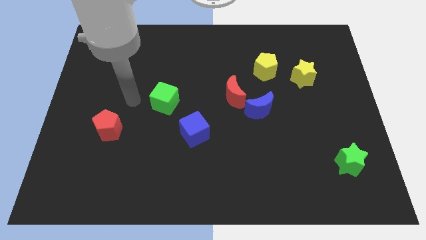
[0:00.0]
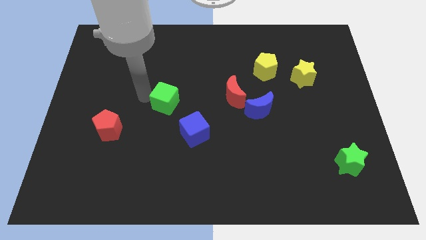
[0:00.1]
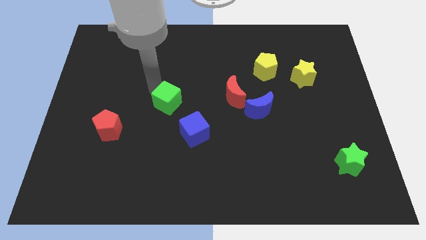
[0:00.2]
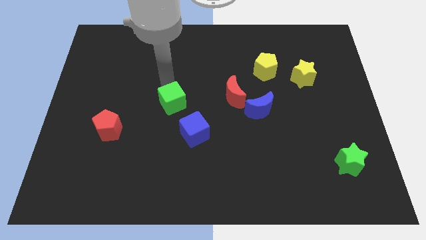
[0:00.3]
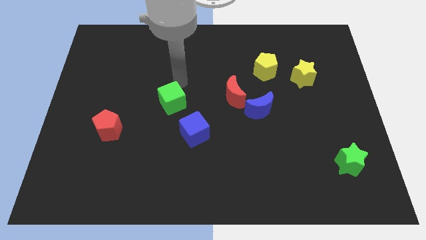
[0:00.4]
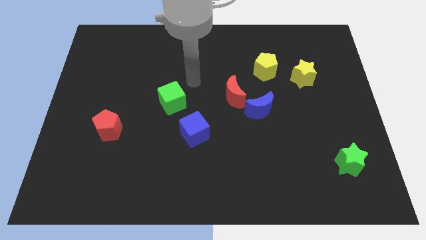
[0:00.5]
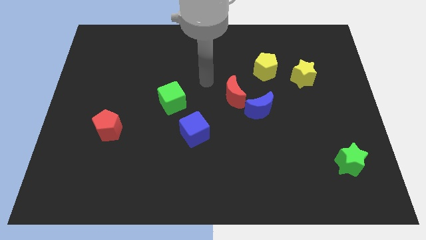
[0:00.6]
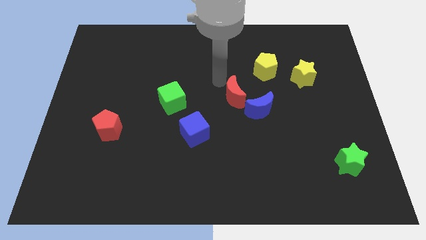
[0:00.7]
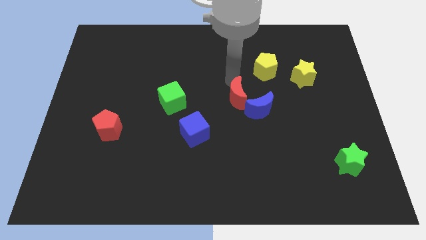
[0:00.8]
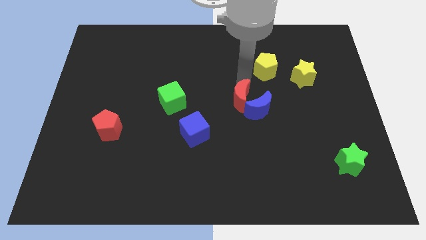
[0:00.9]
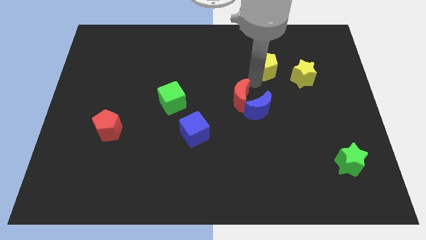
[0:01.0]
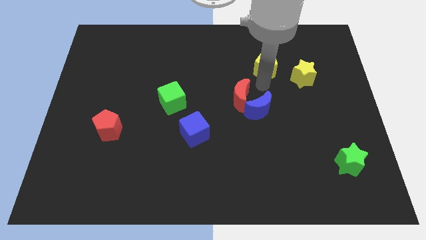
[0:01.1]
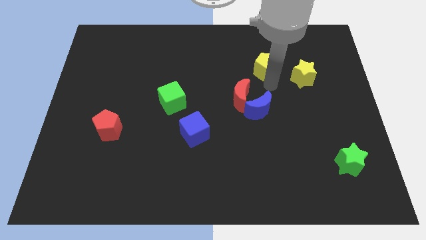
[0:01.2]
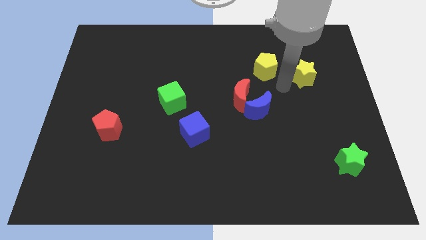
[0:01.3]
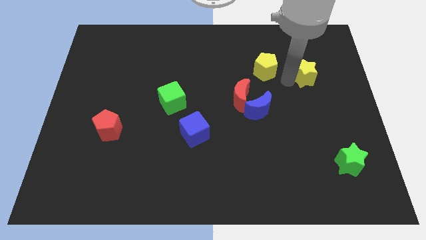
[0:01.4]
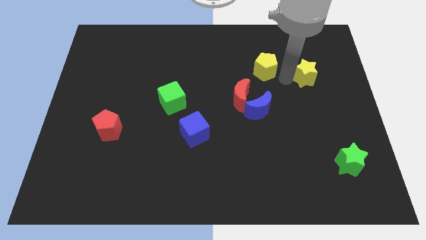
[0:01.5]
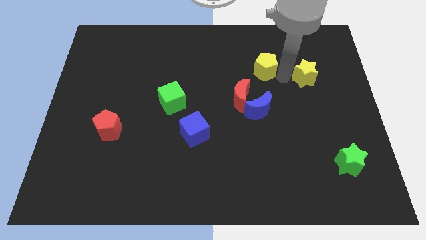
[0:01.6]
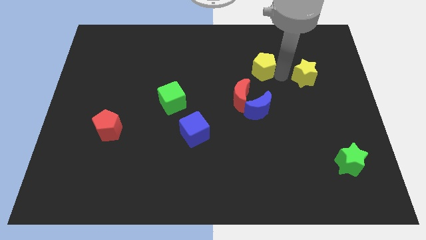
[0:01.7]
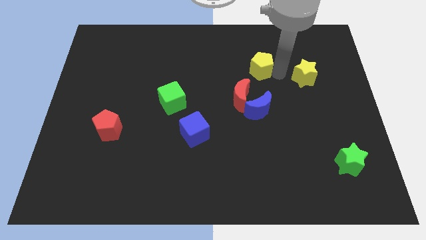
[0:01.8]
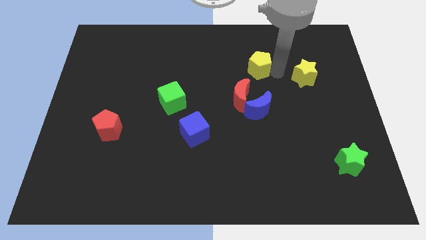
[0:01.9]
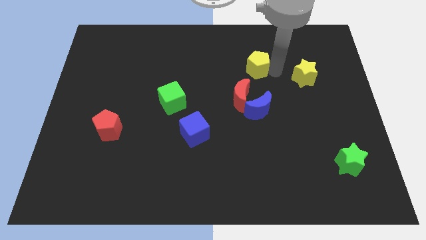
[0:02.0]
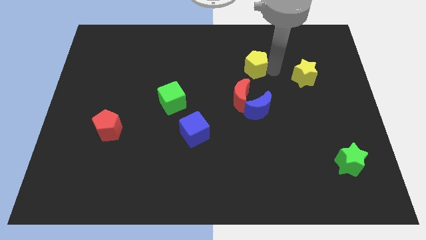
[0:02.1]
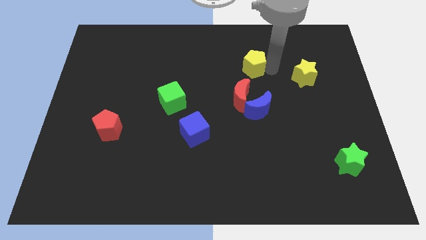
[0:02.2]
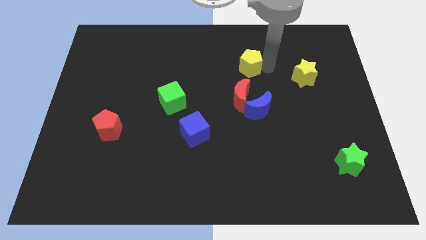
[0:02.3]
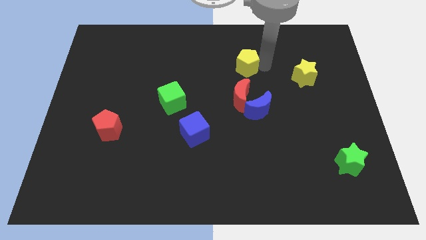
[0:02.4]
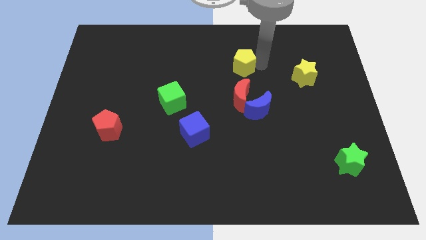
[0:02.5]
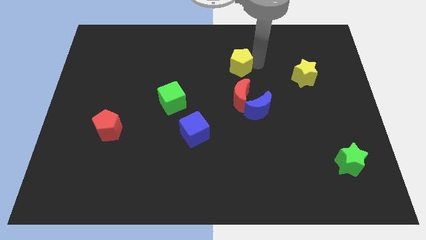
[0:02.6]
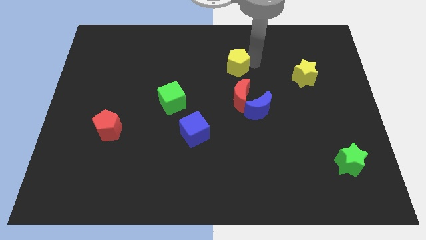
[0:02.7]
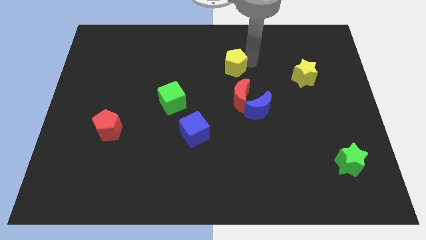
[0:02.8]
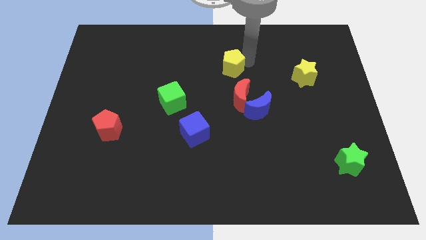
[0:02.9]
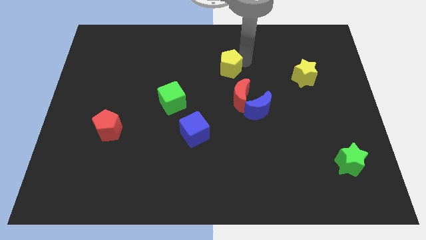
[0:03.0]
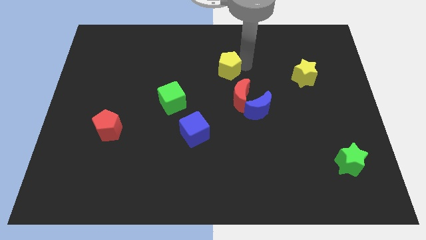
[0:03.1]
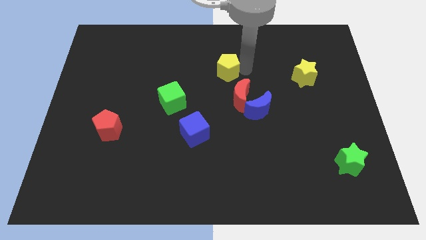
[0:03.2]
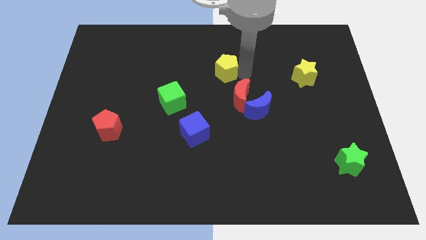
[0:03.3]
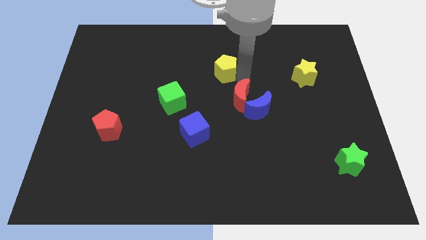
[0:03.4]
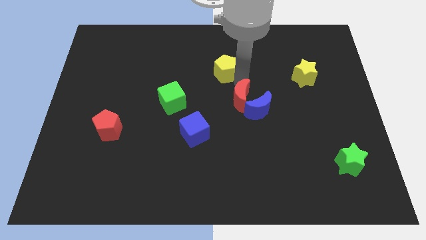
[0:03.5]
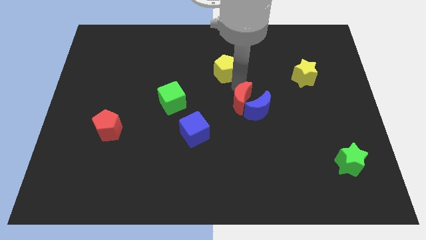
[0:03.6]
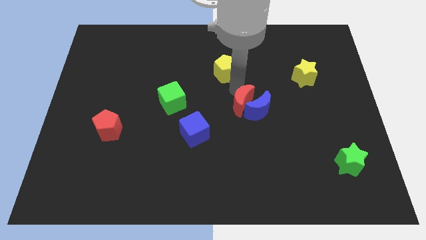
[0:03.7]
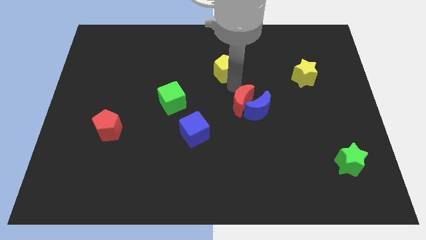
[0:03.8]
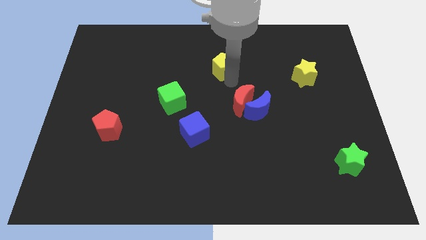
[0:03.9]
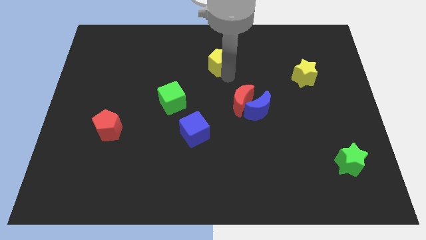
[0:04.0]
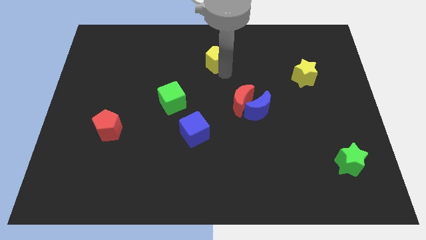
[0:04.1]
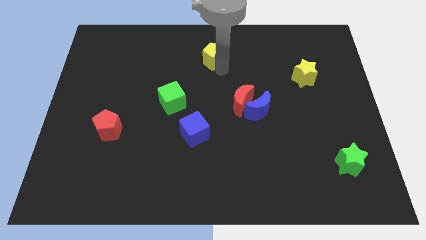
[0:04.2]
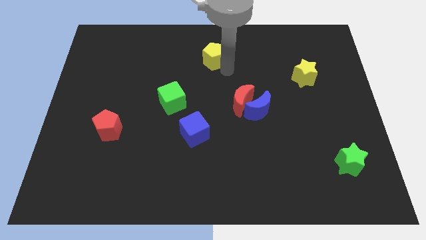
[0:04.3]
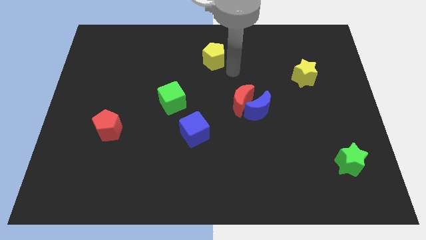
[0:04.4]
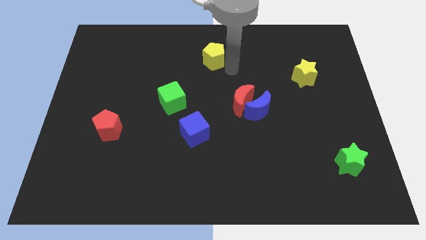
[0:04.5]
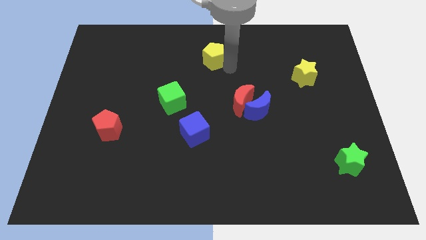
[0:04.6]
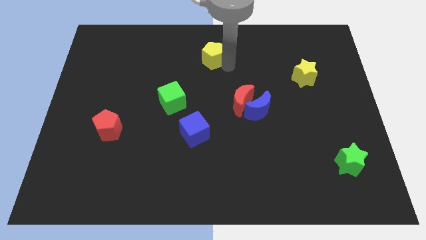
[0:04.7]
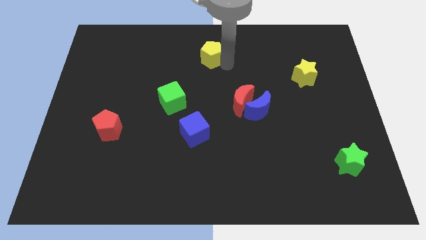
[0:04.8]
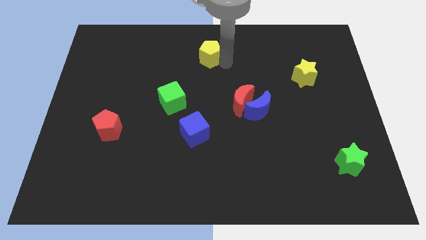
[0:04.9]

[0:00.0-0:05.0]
slide the yellow pentagon to the top

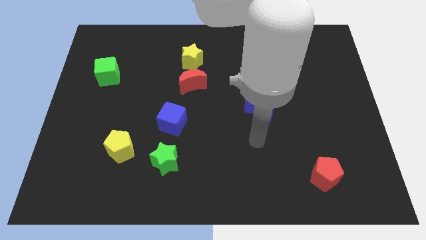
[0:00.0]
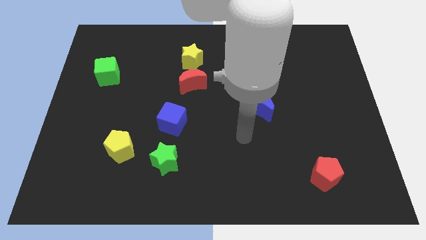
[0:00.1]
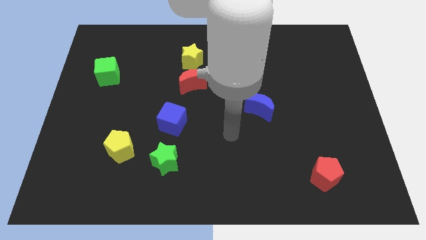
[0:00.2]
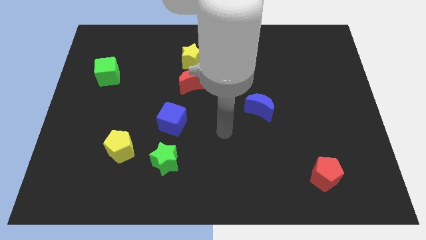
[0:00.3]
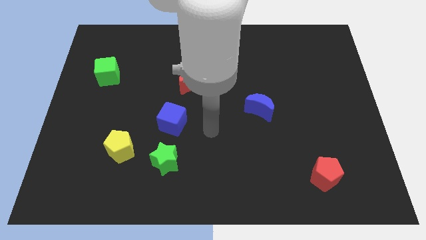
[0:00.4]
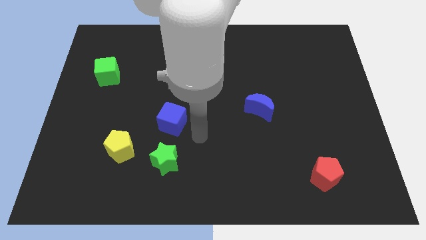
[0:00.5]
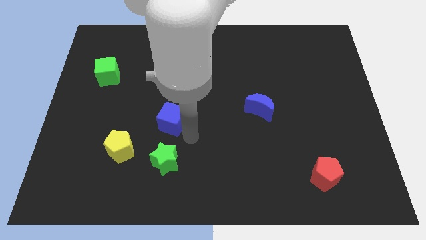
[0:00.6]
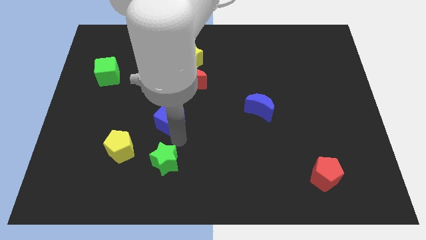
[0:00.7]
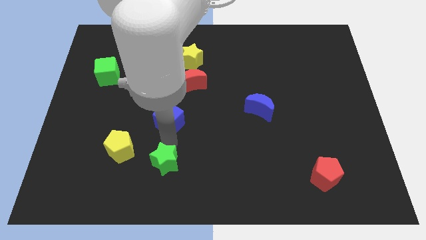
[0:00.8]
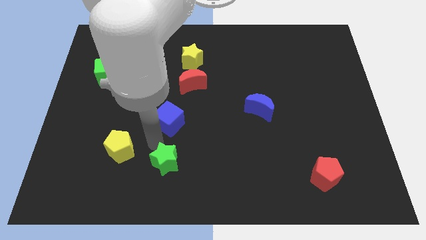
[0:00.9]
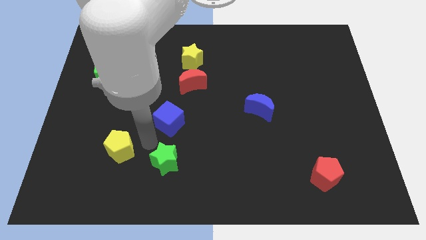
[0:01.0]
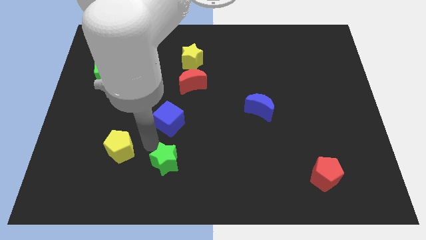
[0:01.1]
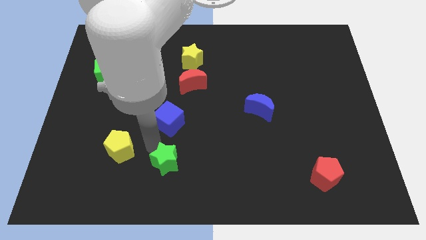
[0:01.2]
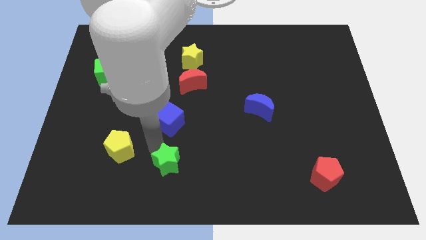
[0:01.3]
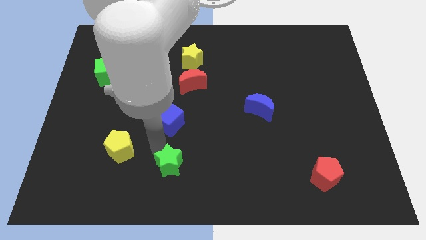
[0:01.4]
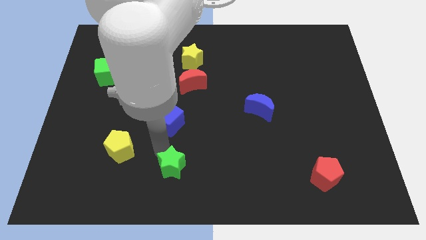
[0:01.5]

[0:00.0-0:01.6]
push the green star to the bottom side
